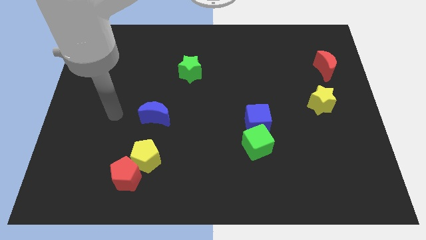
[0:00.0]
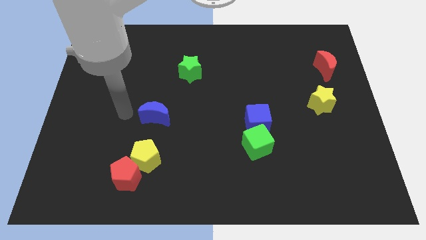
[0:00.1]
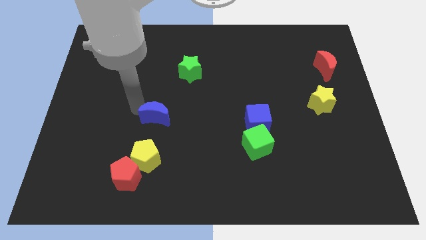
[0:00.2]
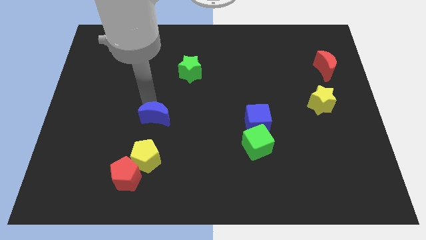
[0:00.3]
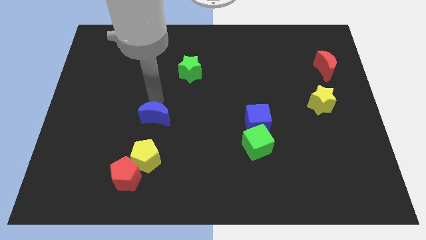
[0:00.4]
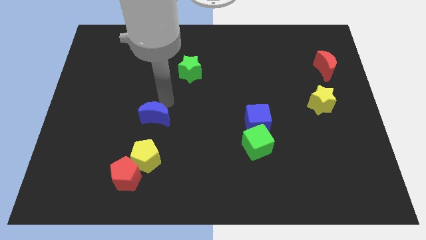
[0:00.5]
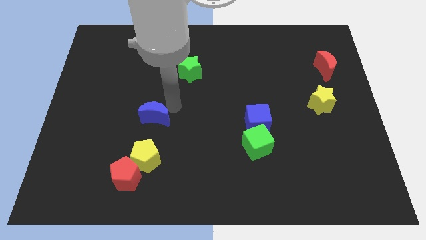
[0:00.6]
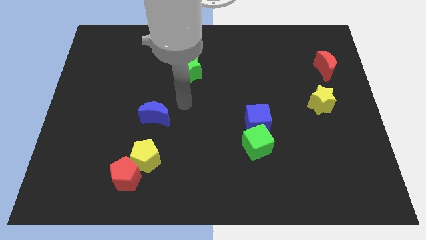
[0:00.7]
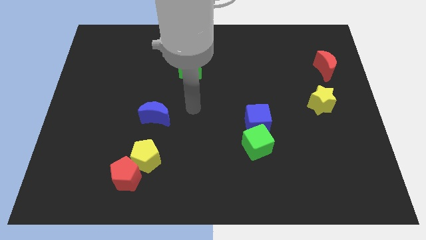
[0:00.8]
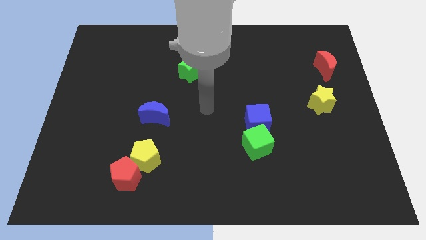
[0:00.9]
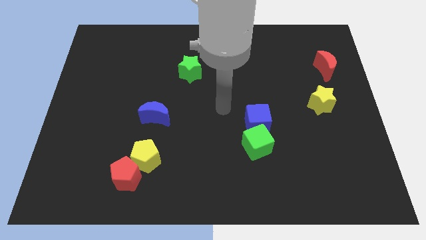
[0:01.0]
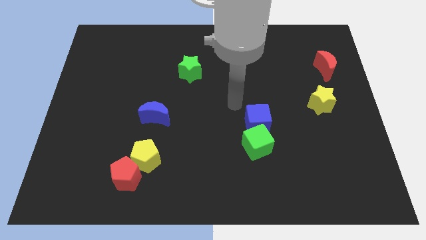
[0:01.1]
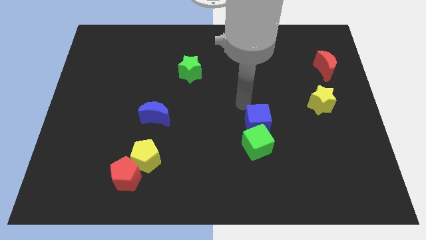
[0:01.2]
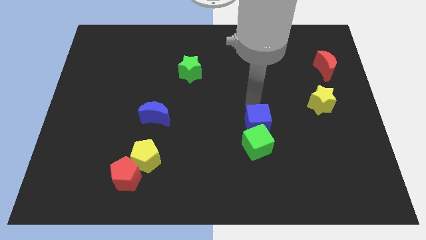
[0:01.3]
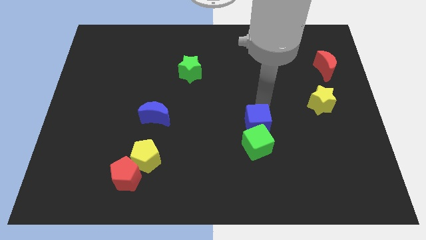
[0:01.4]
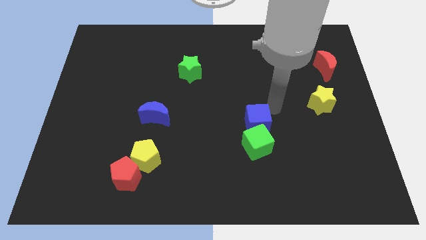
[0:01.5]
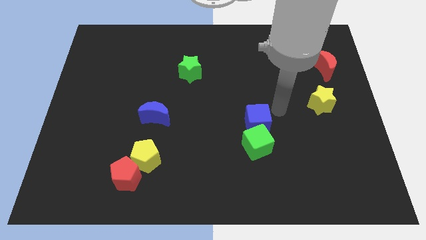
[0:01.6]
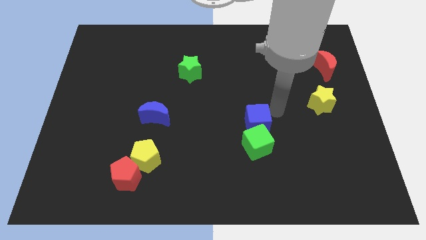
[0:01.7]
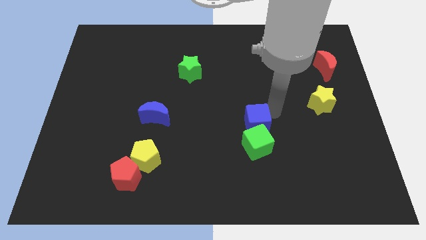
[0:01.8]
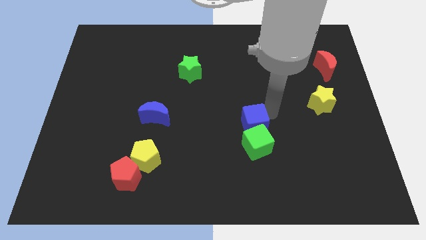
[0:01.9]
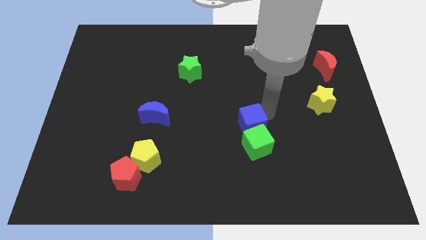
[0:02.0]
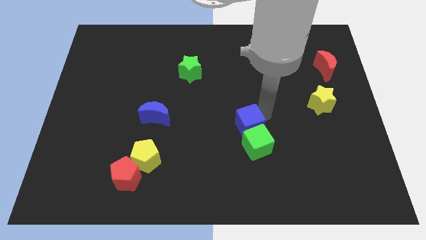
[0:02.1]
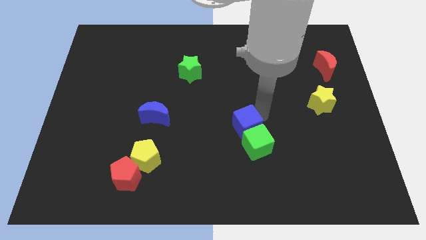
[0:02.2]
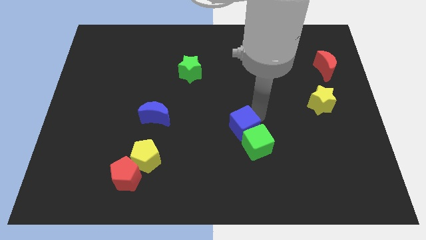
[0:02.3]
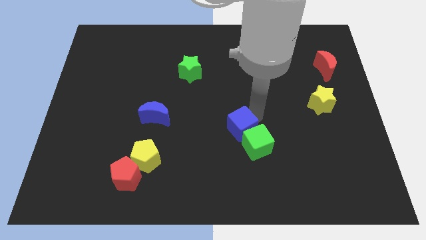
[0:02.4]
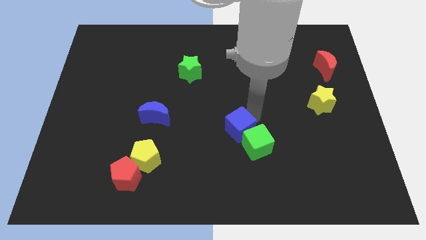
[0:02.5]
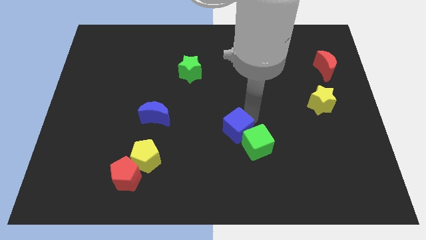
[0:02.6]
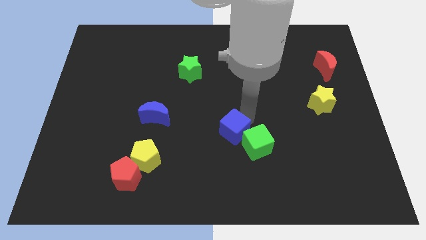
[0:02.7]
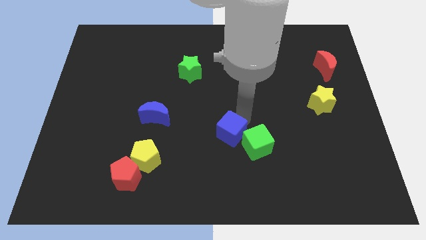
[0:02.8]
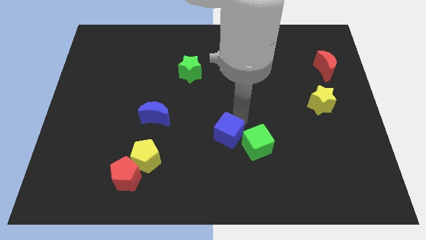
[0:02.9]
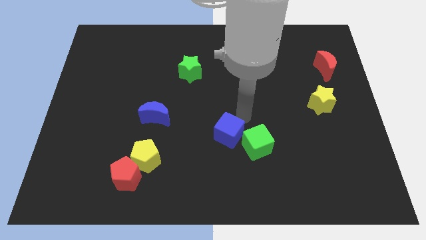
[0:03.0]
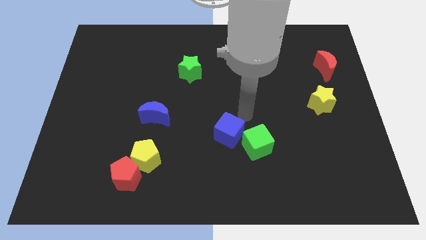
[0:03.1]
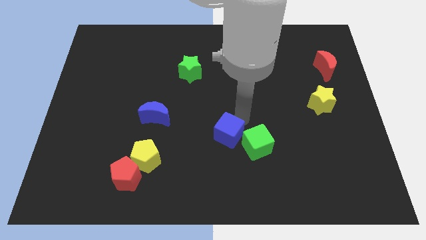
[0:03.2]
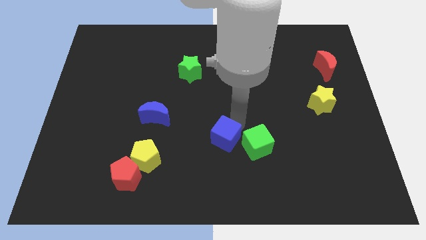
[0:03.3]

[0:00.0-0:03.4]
slightly move the blue cube diagonally downwards and left

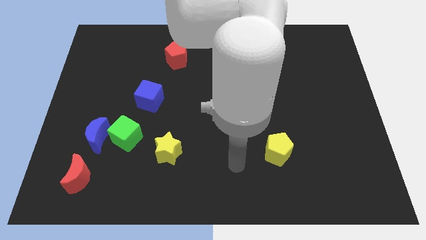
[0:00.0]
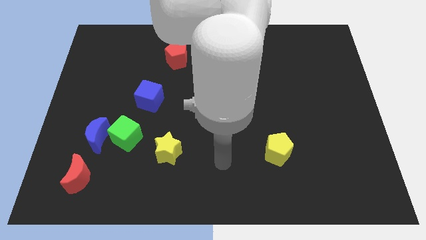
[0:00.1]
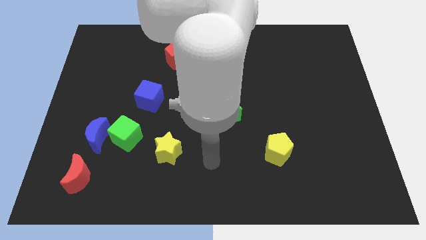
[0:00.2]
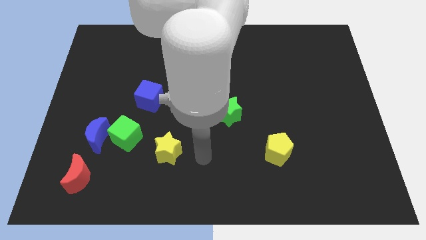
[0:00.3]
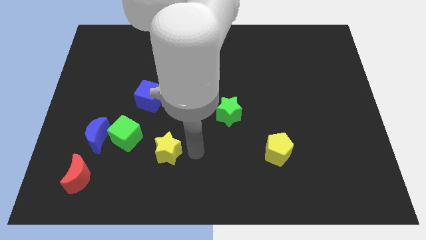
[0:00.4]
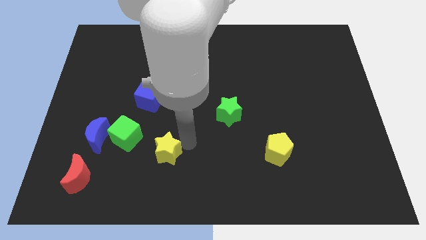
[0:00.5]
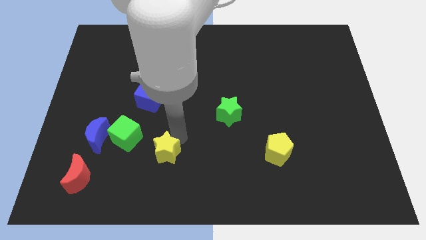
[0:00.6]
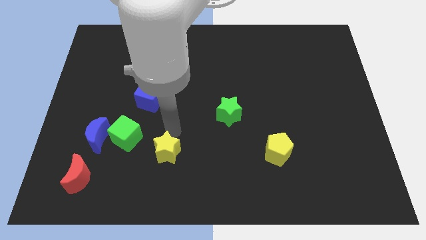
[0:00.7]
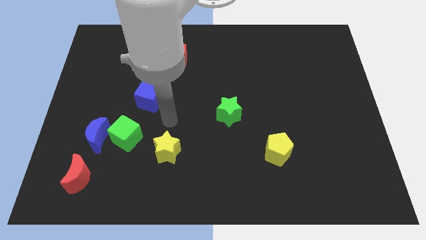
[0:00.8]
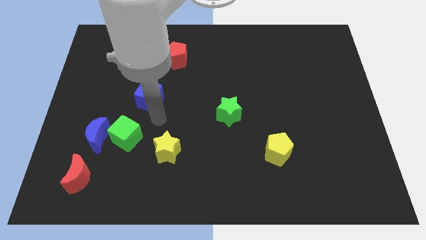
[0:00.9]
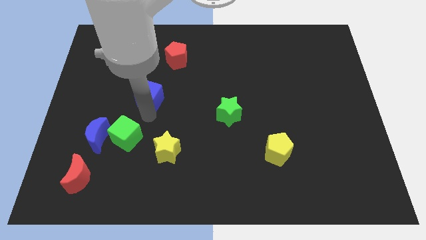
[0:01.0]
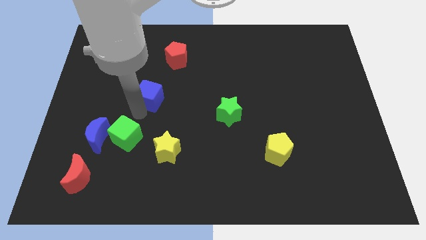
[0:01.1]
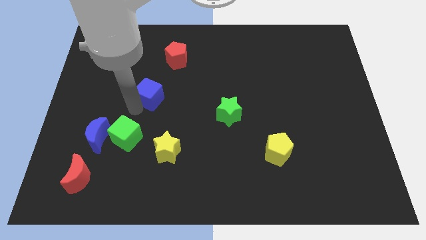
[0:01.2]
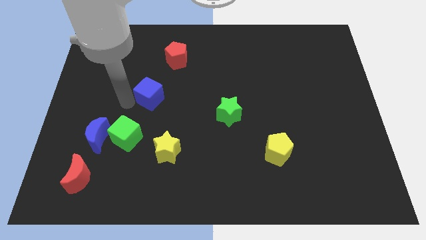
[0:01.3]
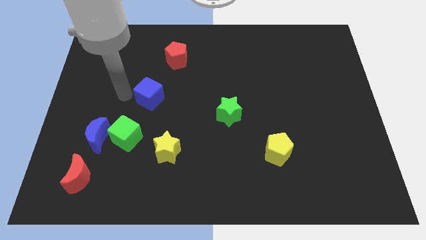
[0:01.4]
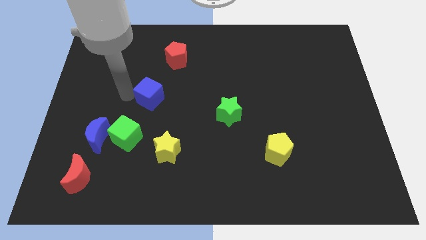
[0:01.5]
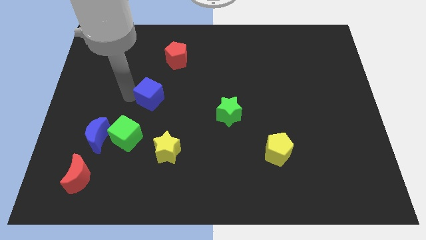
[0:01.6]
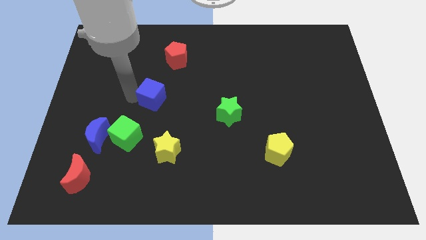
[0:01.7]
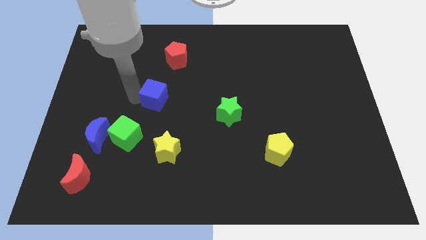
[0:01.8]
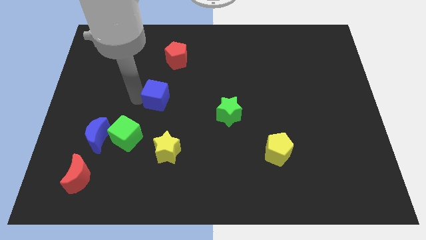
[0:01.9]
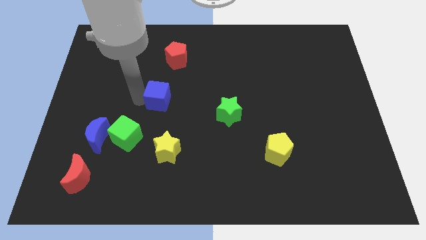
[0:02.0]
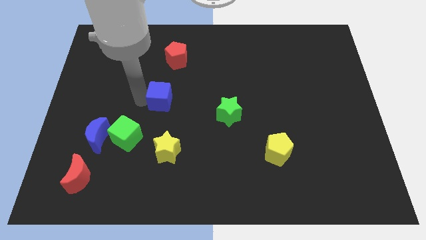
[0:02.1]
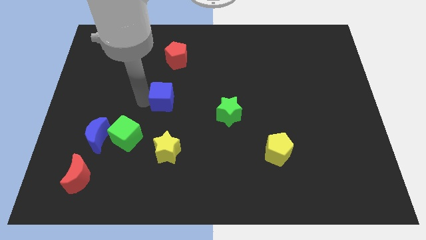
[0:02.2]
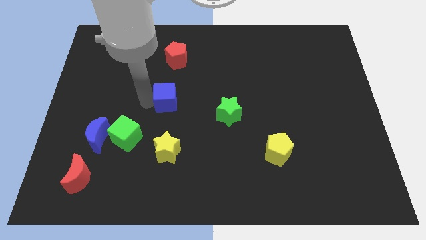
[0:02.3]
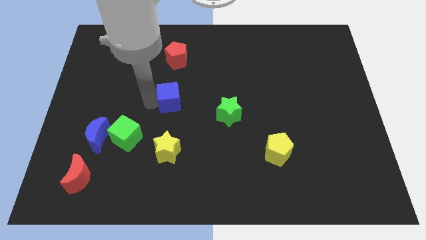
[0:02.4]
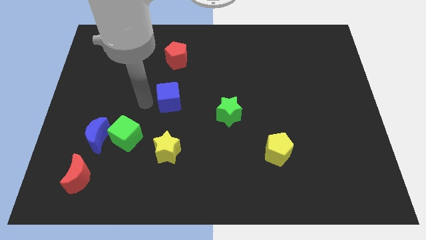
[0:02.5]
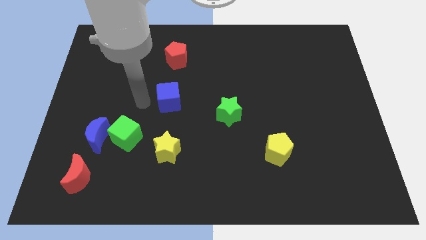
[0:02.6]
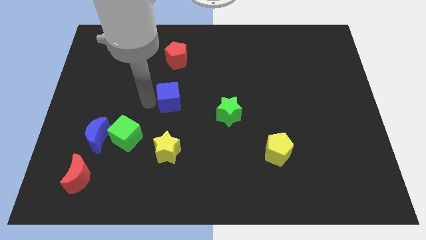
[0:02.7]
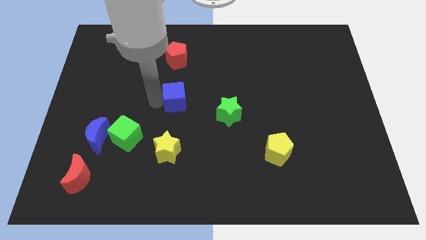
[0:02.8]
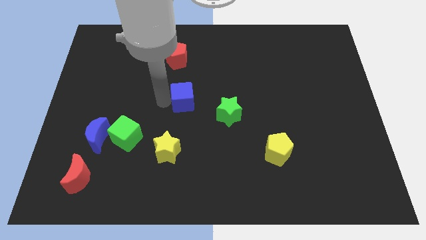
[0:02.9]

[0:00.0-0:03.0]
push the blue cube to the right a little bit

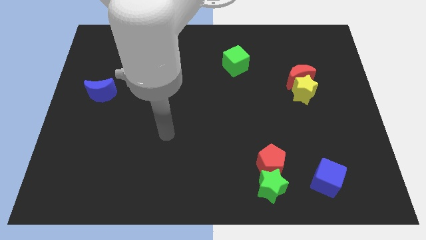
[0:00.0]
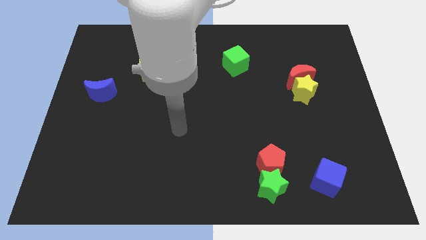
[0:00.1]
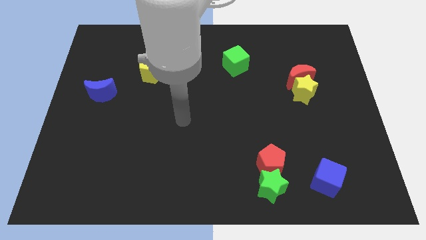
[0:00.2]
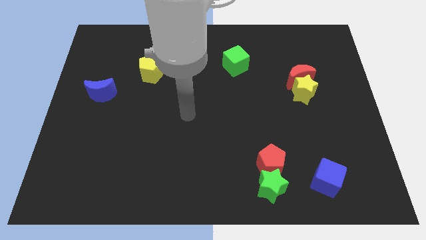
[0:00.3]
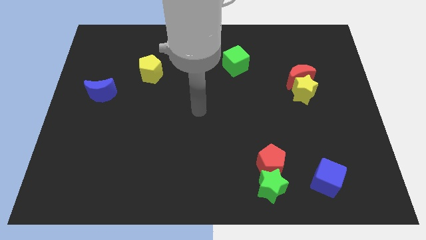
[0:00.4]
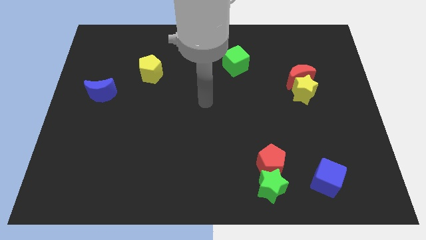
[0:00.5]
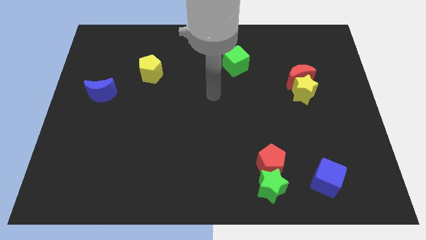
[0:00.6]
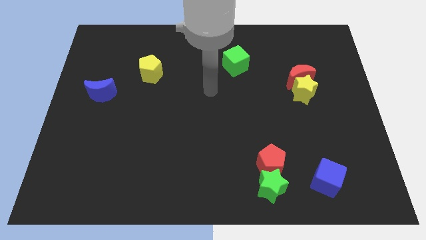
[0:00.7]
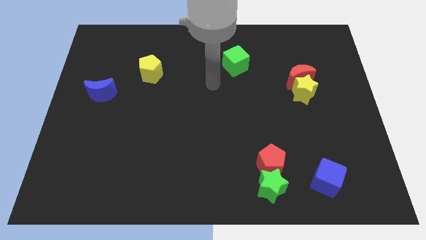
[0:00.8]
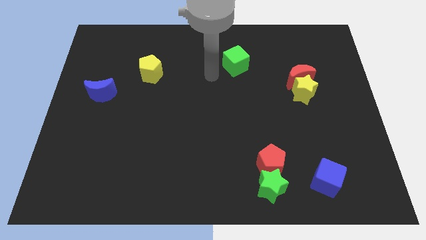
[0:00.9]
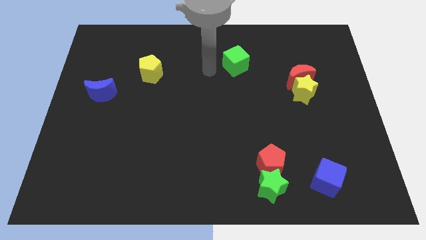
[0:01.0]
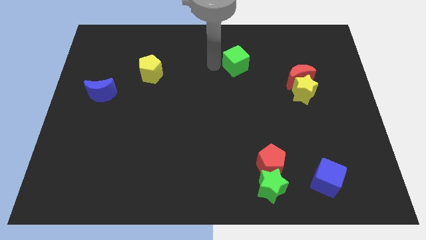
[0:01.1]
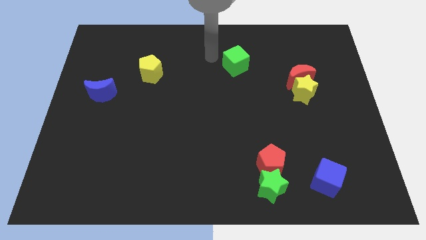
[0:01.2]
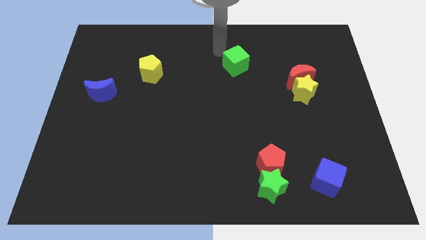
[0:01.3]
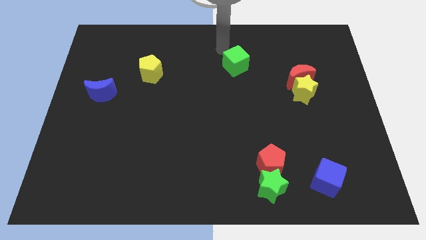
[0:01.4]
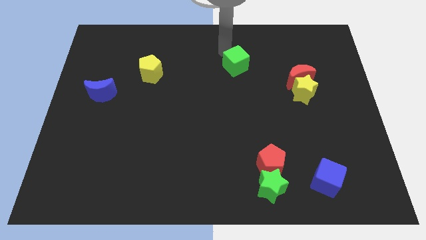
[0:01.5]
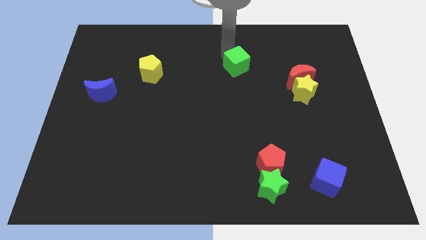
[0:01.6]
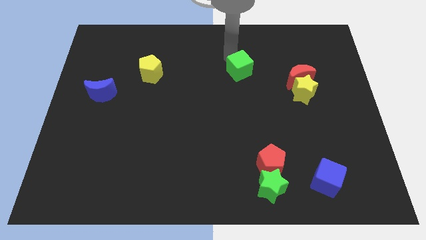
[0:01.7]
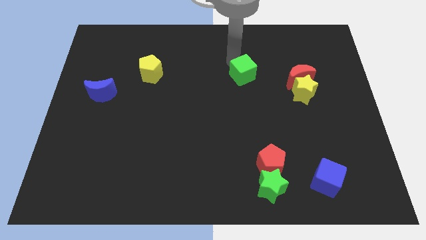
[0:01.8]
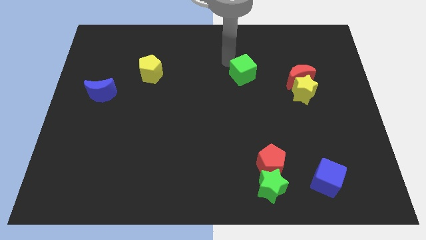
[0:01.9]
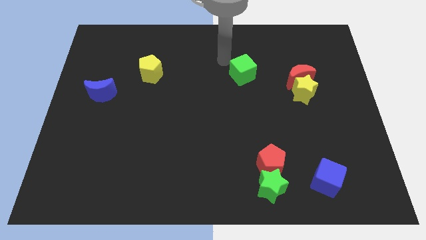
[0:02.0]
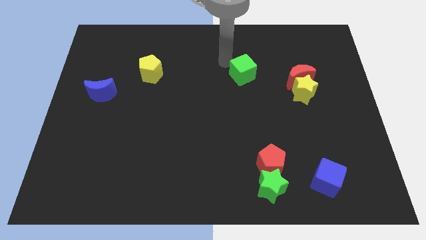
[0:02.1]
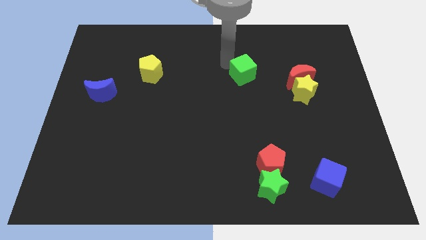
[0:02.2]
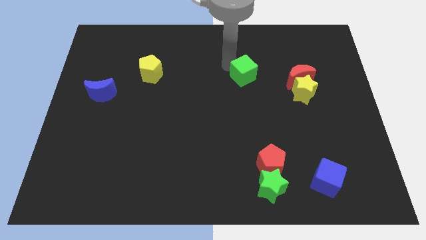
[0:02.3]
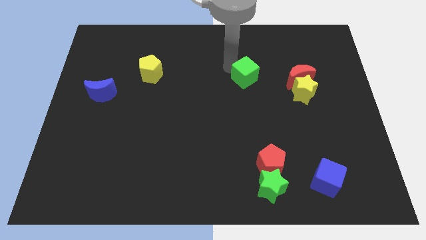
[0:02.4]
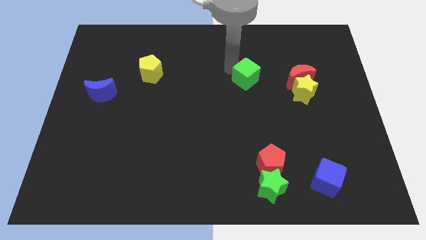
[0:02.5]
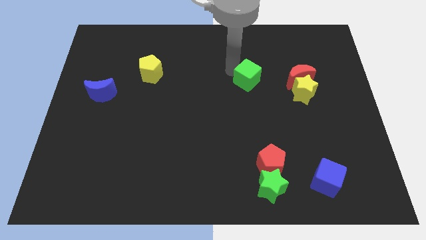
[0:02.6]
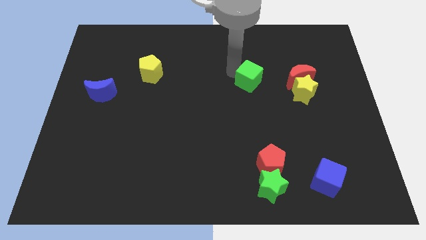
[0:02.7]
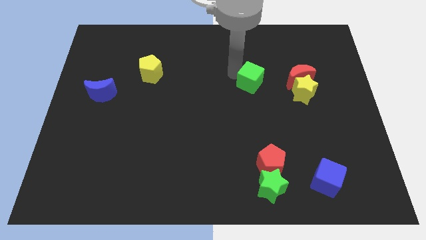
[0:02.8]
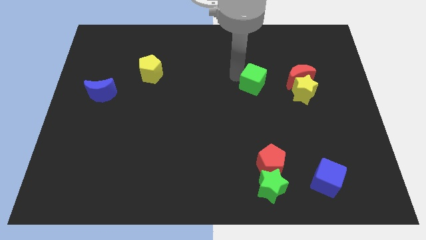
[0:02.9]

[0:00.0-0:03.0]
slightly slide the green cube down and then right
